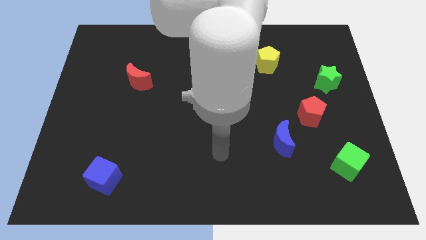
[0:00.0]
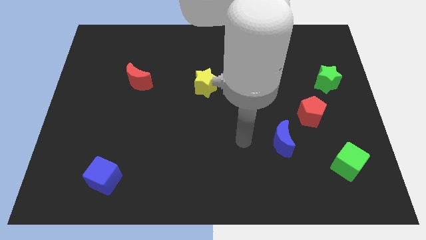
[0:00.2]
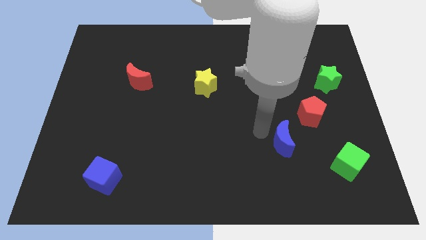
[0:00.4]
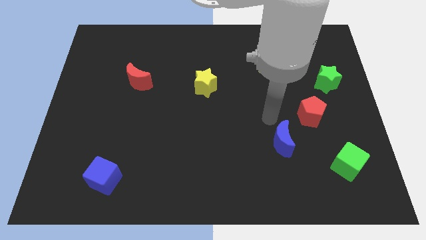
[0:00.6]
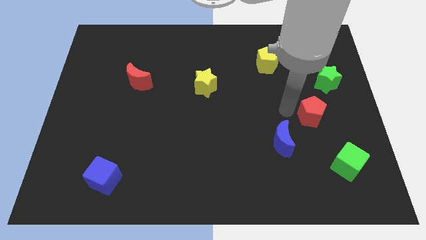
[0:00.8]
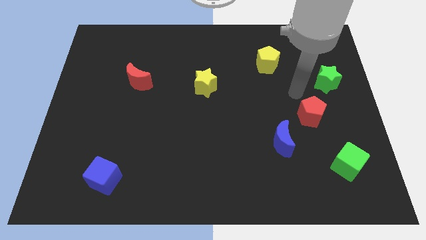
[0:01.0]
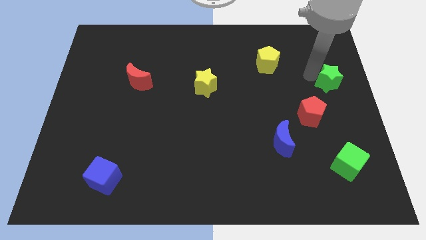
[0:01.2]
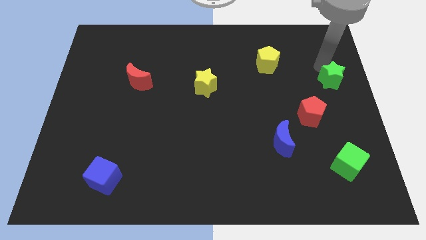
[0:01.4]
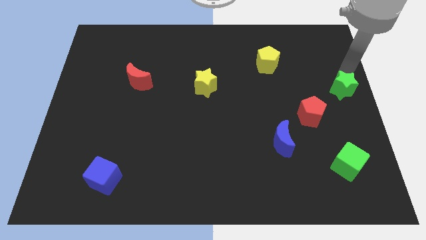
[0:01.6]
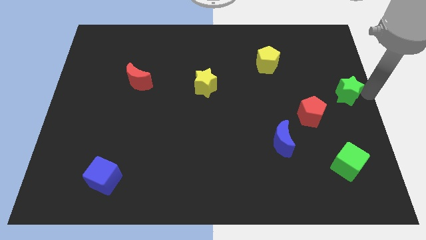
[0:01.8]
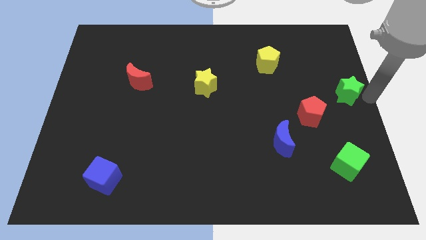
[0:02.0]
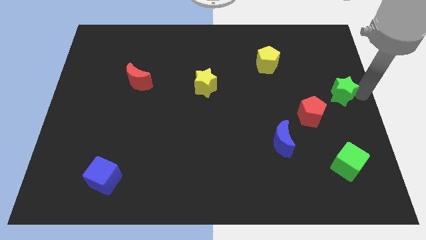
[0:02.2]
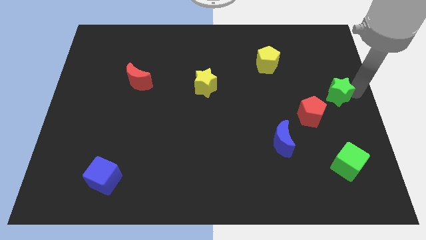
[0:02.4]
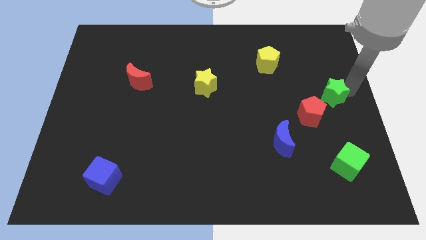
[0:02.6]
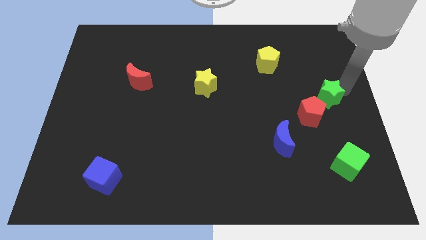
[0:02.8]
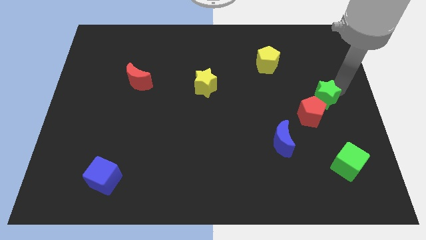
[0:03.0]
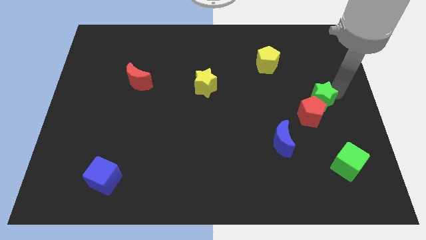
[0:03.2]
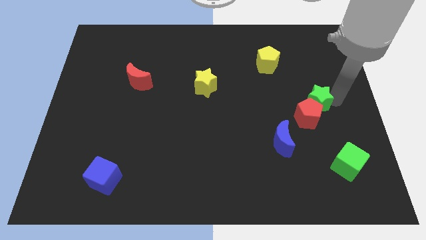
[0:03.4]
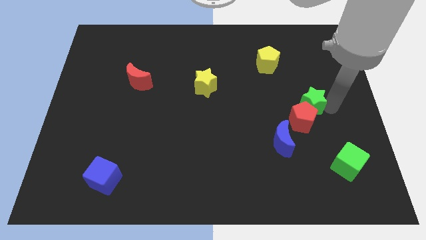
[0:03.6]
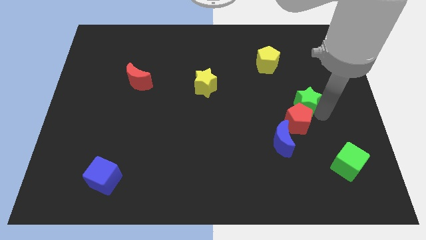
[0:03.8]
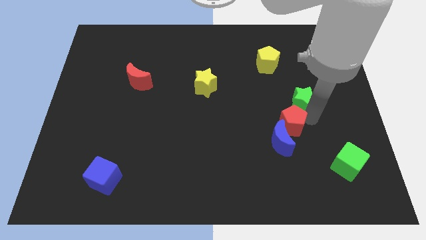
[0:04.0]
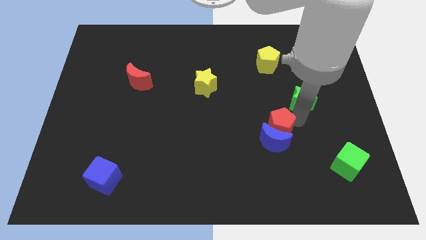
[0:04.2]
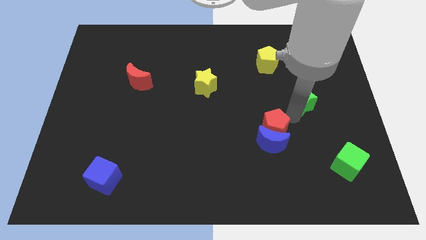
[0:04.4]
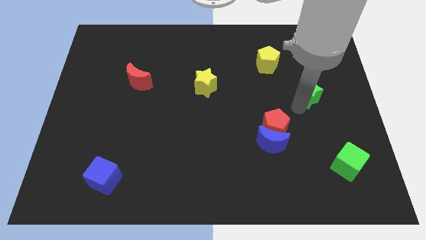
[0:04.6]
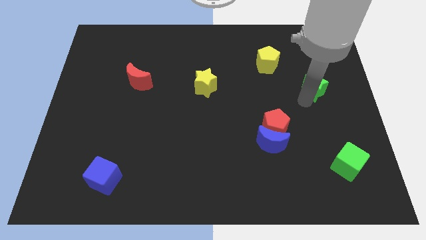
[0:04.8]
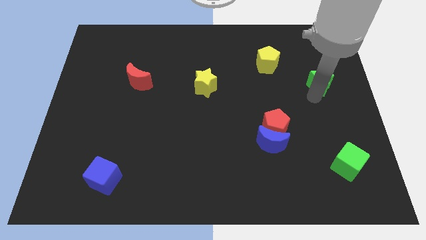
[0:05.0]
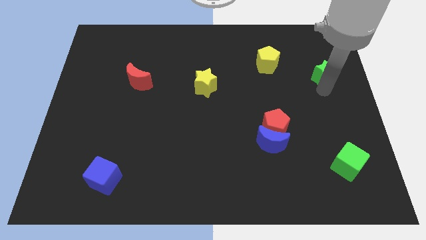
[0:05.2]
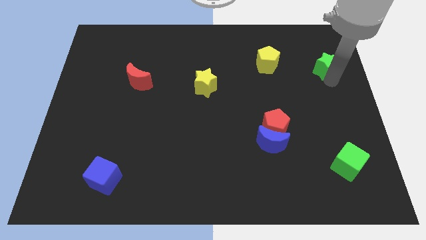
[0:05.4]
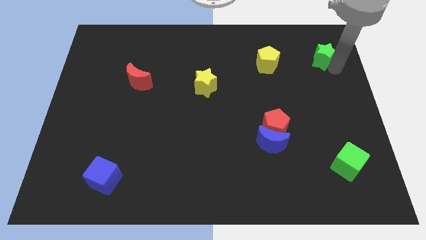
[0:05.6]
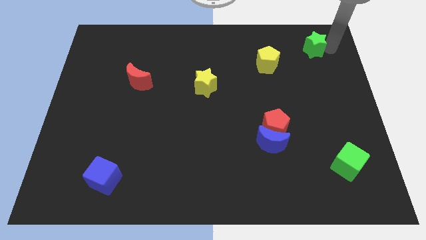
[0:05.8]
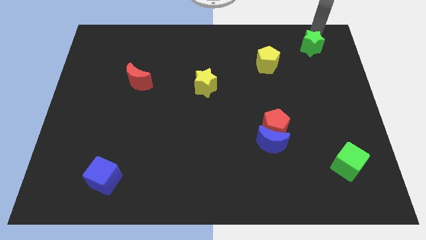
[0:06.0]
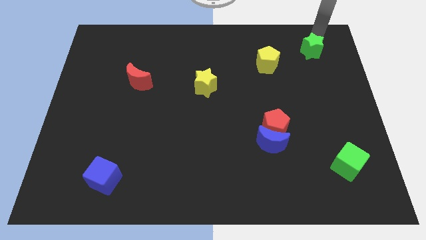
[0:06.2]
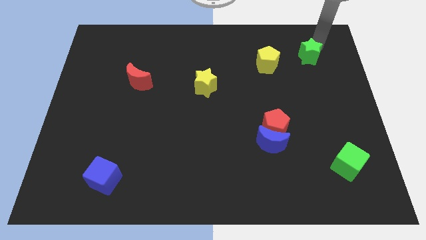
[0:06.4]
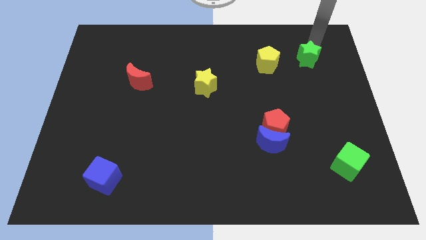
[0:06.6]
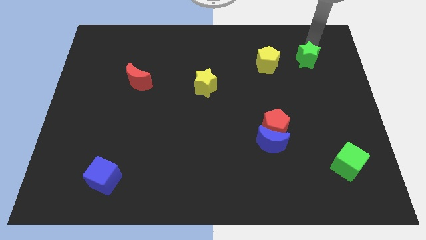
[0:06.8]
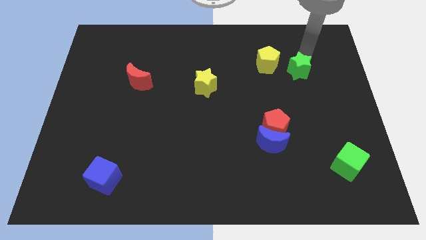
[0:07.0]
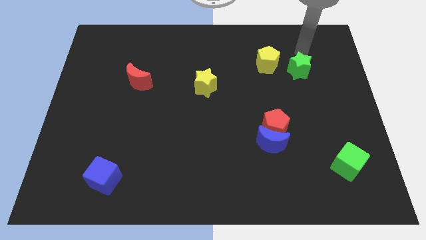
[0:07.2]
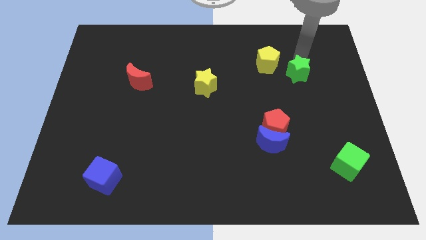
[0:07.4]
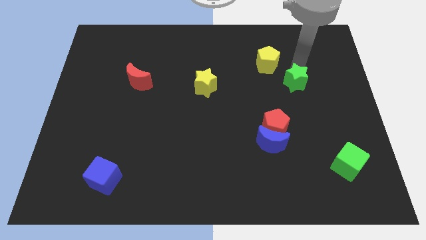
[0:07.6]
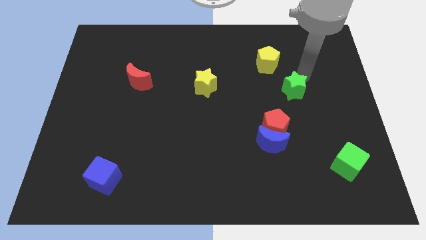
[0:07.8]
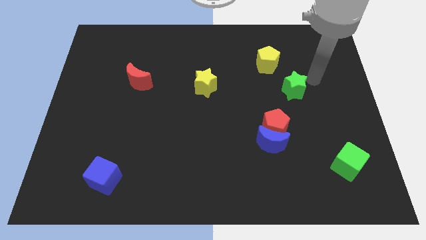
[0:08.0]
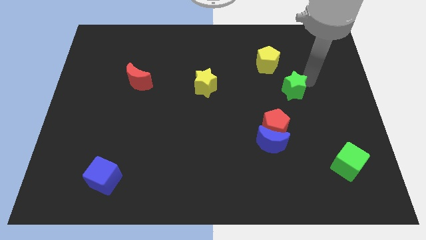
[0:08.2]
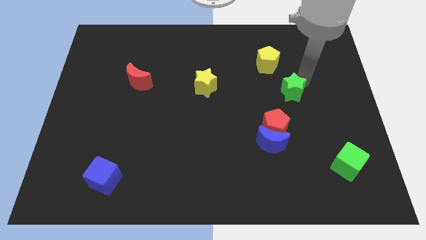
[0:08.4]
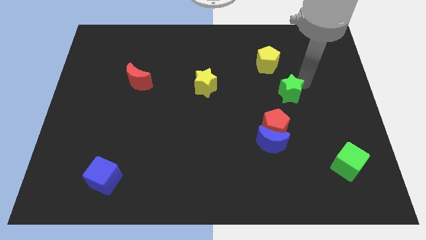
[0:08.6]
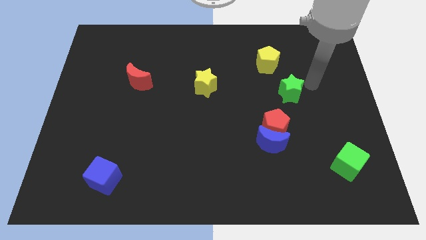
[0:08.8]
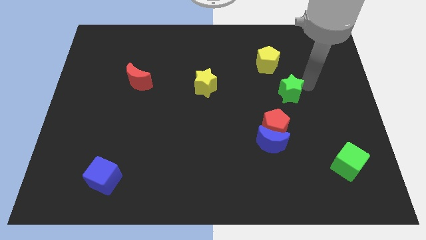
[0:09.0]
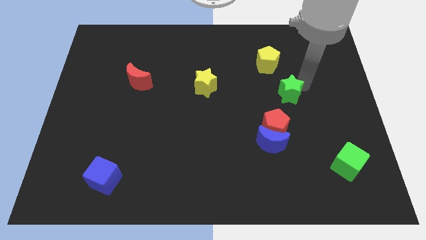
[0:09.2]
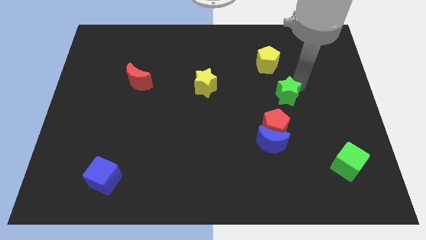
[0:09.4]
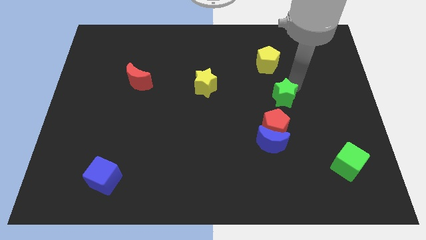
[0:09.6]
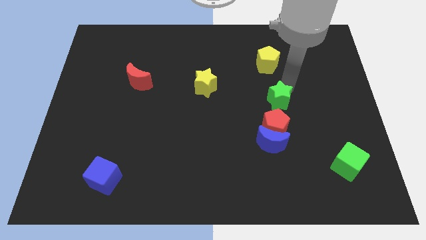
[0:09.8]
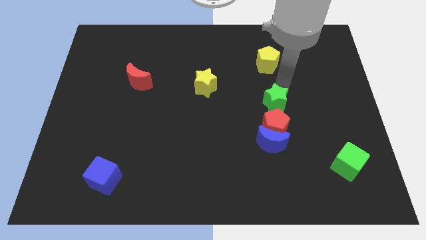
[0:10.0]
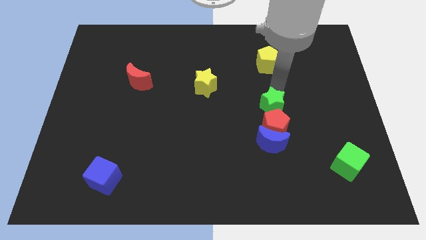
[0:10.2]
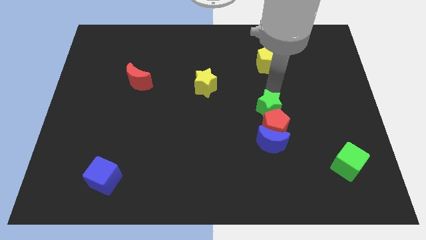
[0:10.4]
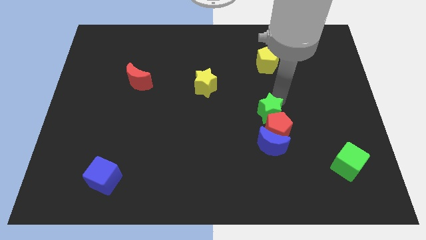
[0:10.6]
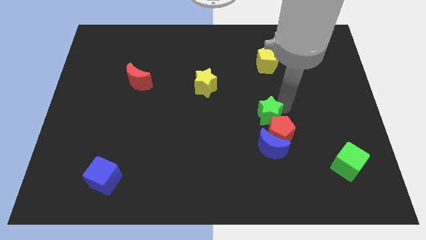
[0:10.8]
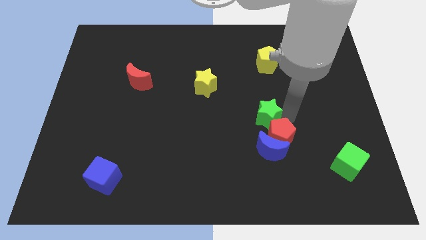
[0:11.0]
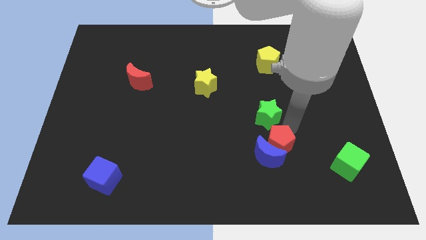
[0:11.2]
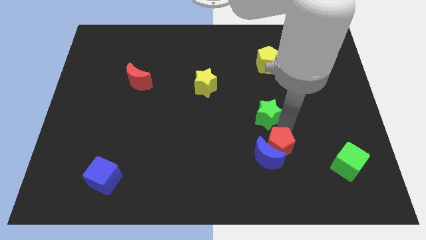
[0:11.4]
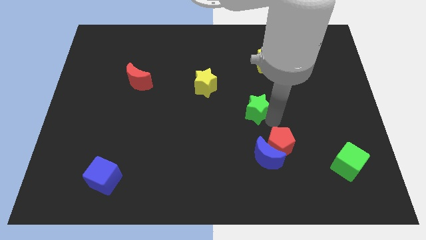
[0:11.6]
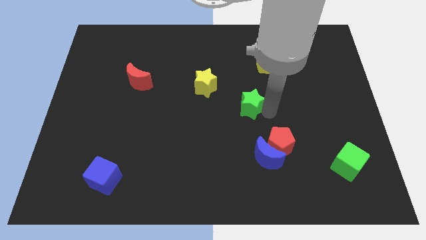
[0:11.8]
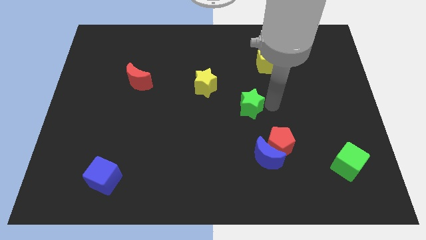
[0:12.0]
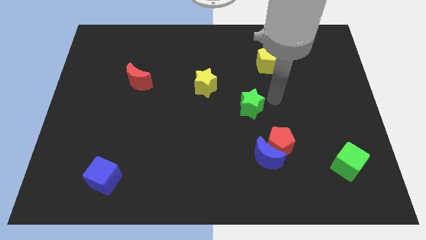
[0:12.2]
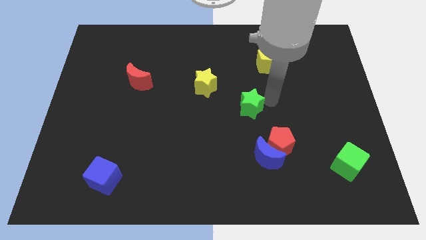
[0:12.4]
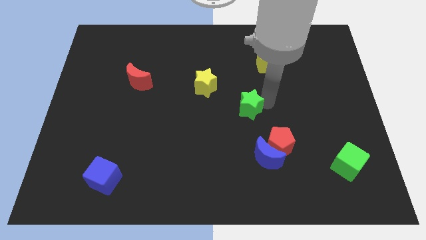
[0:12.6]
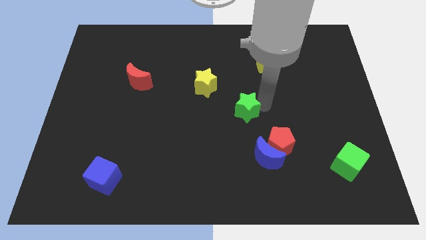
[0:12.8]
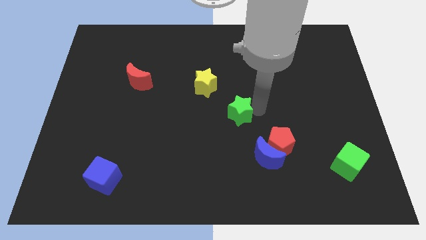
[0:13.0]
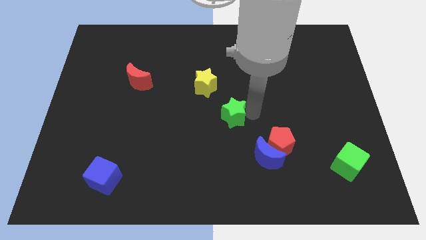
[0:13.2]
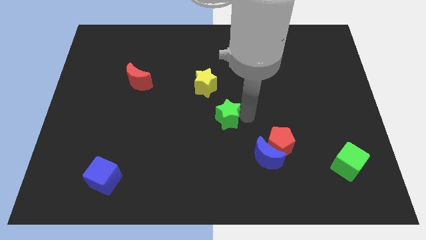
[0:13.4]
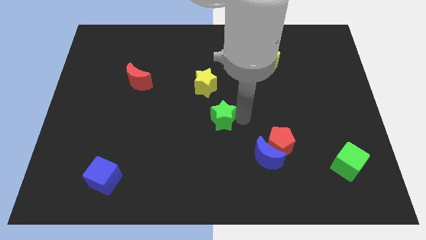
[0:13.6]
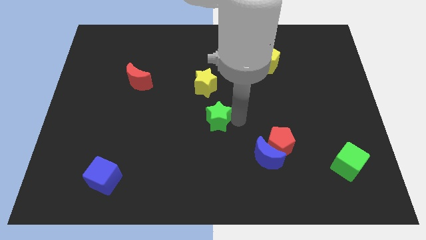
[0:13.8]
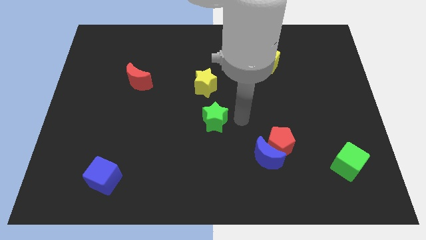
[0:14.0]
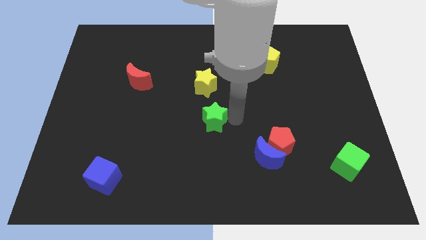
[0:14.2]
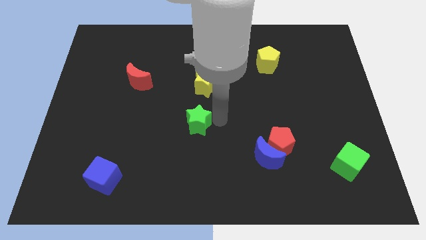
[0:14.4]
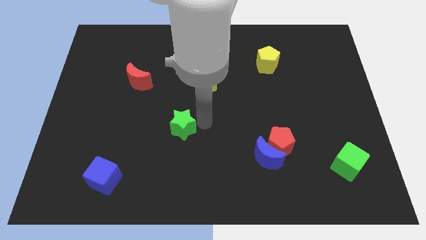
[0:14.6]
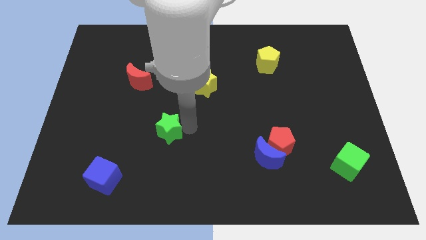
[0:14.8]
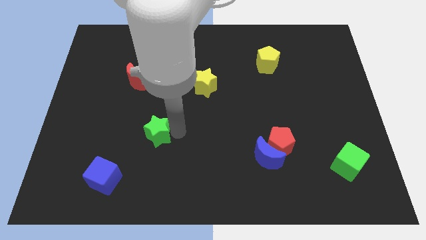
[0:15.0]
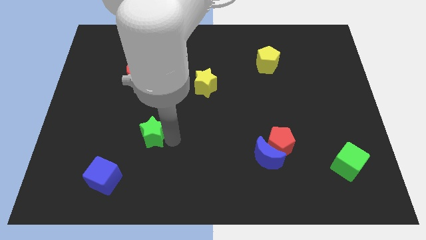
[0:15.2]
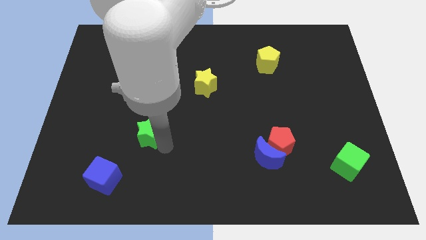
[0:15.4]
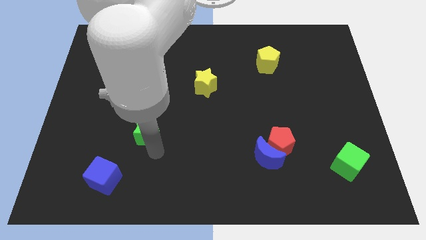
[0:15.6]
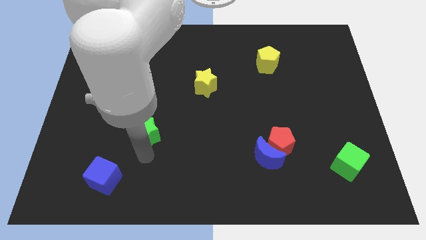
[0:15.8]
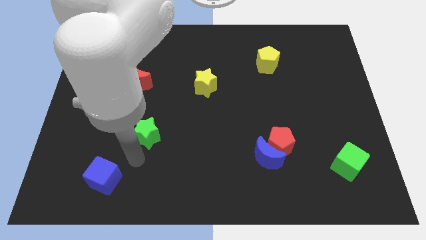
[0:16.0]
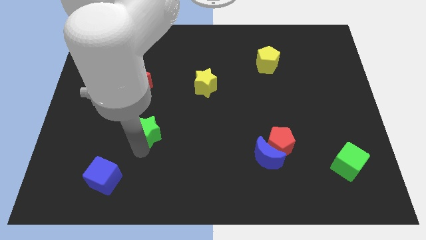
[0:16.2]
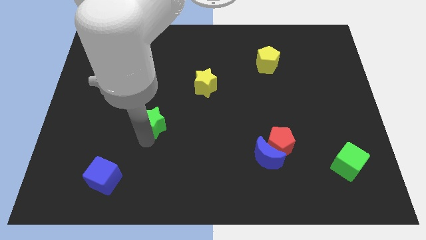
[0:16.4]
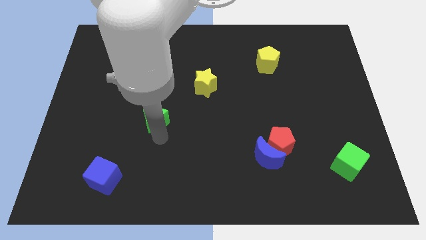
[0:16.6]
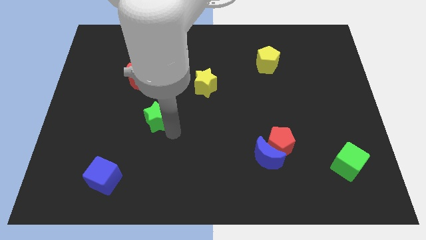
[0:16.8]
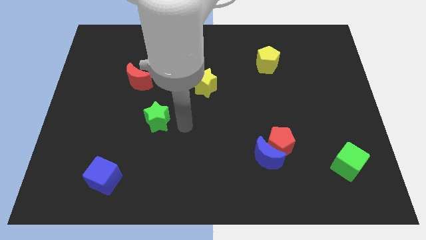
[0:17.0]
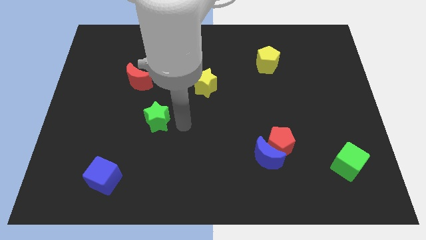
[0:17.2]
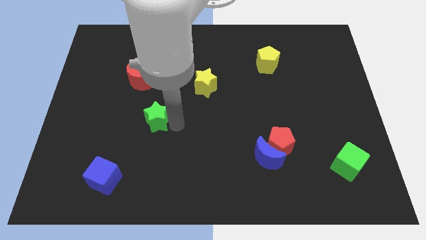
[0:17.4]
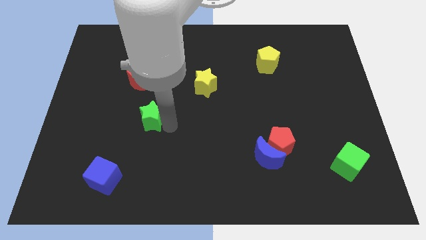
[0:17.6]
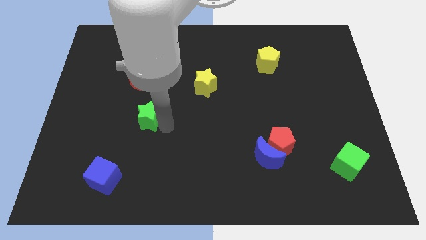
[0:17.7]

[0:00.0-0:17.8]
slide the green star to the bottom of the red moon
